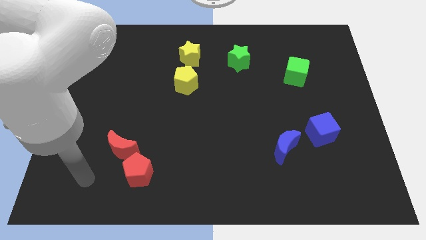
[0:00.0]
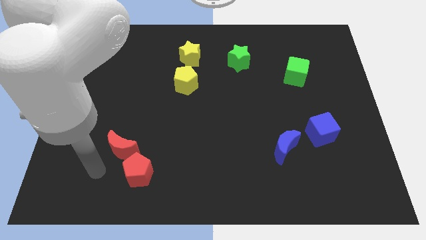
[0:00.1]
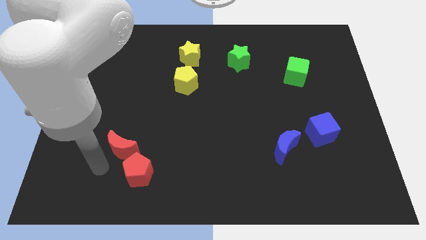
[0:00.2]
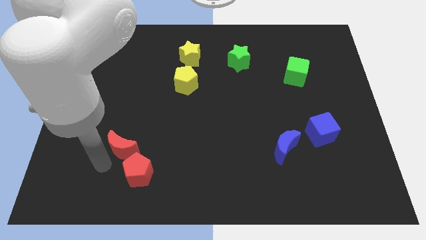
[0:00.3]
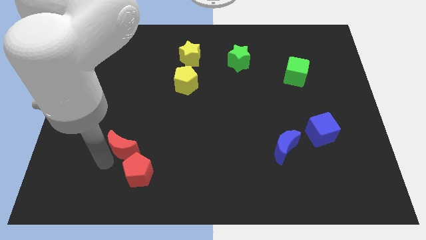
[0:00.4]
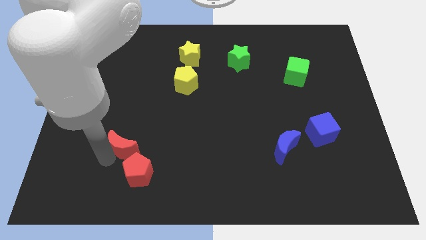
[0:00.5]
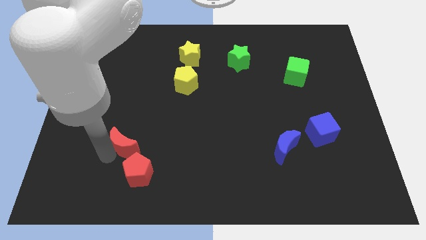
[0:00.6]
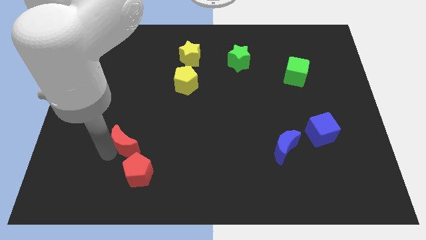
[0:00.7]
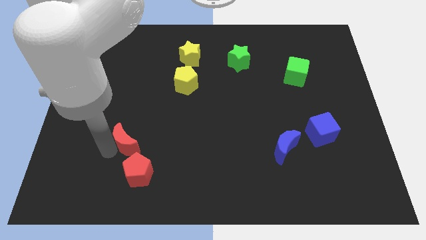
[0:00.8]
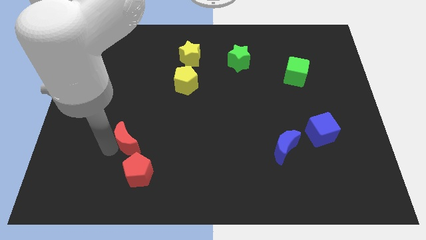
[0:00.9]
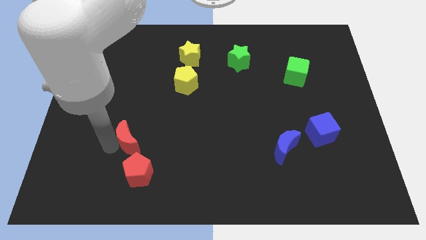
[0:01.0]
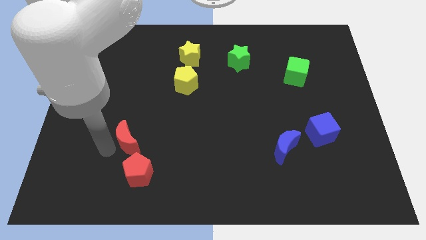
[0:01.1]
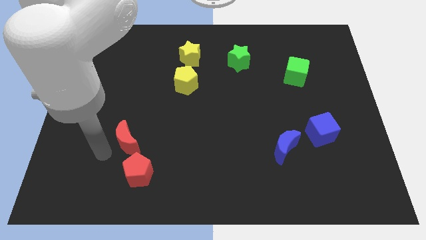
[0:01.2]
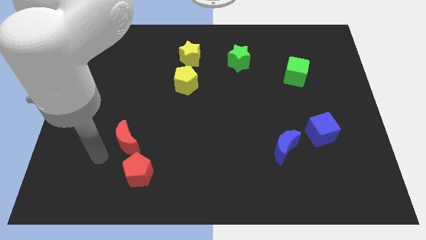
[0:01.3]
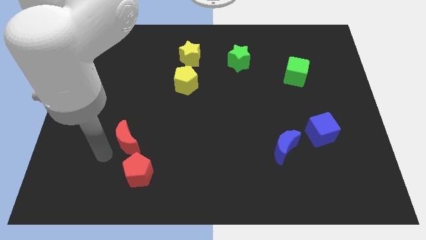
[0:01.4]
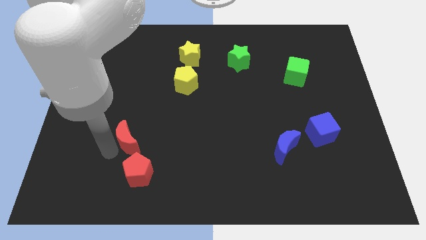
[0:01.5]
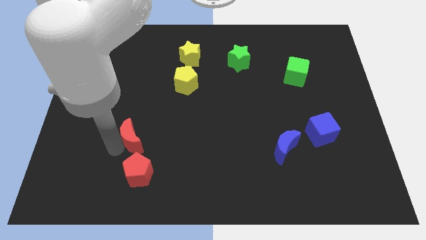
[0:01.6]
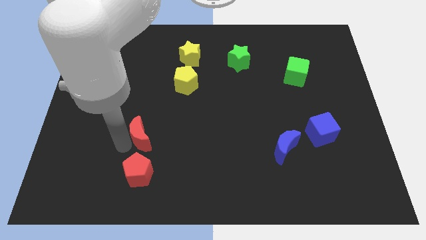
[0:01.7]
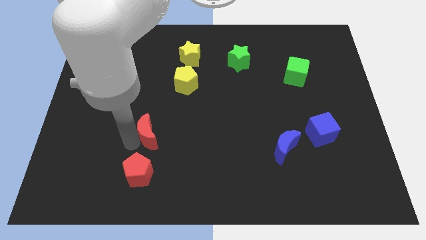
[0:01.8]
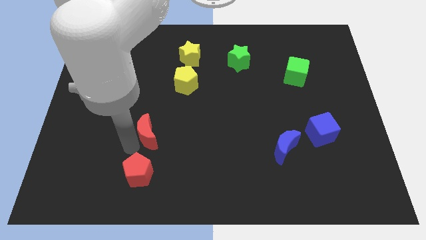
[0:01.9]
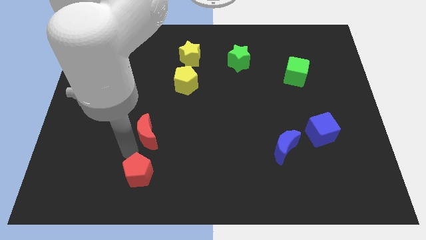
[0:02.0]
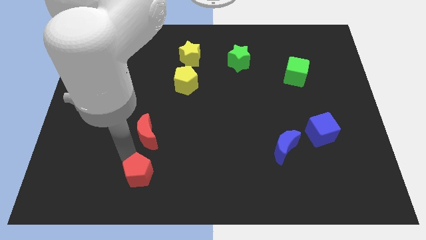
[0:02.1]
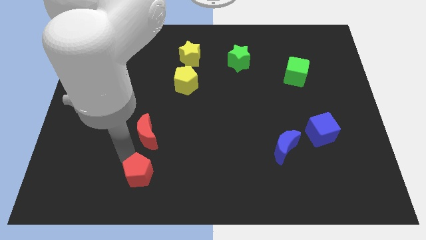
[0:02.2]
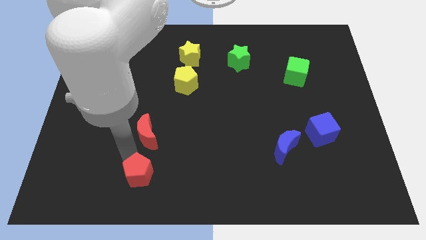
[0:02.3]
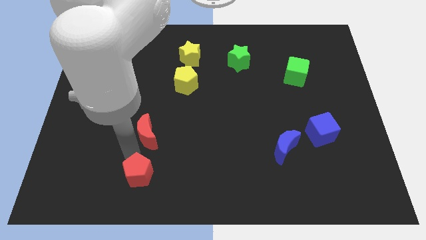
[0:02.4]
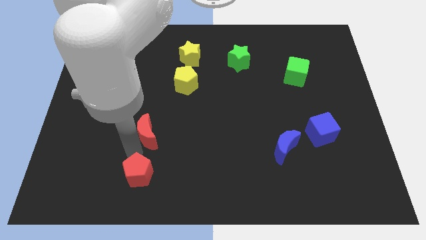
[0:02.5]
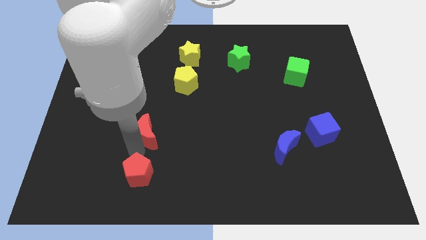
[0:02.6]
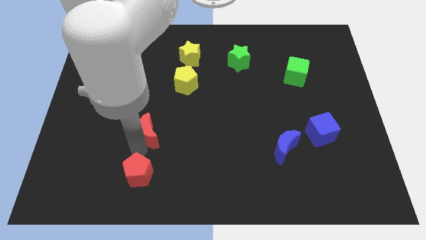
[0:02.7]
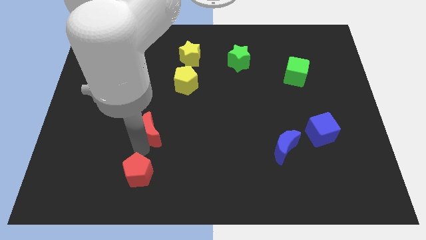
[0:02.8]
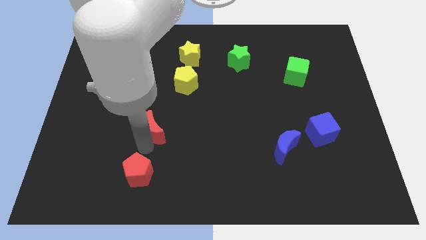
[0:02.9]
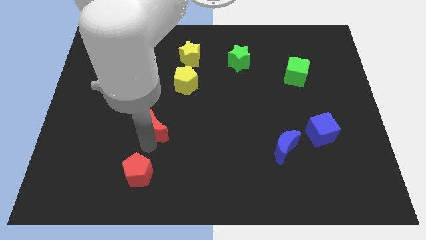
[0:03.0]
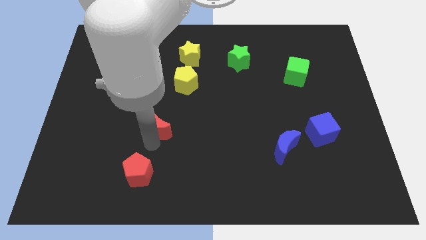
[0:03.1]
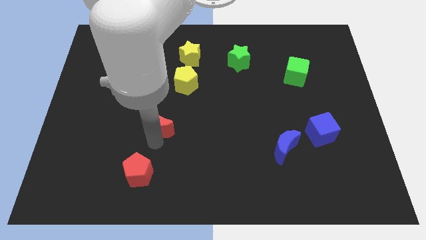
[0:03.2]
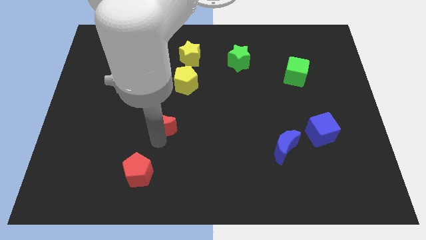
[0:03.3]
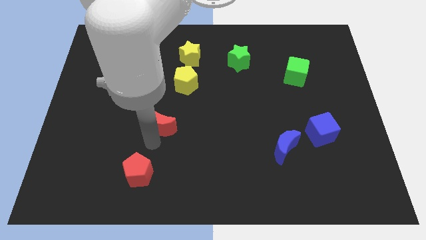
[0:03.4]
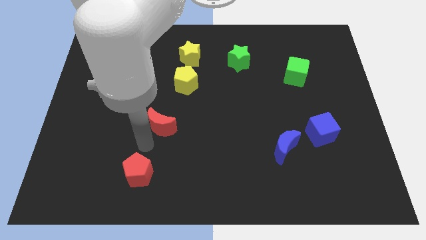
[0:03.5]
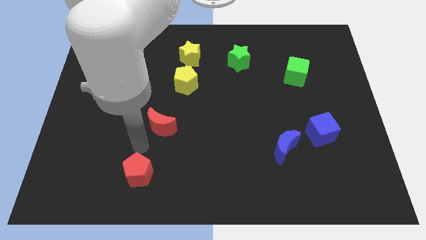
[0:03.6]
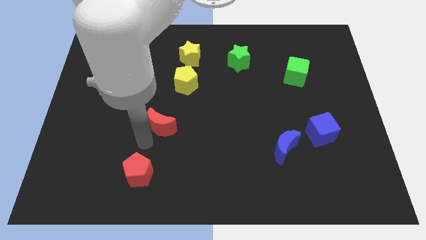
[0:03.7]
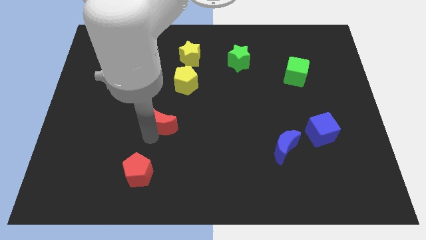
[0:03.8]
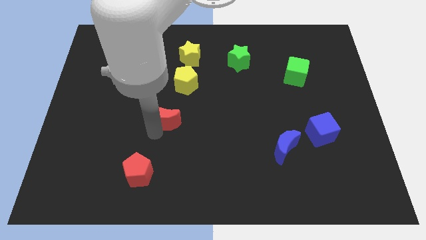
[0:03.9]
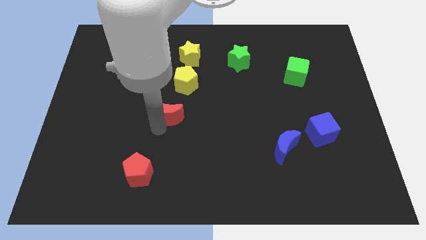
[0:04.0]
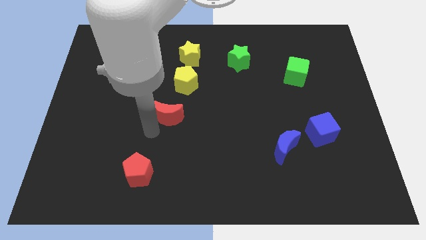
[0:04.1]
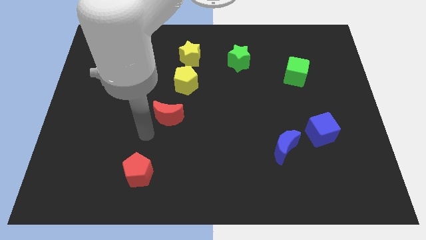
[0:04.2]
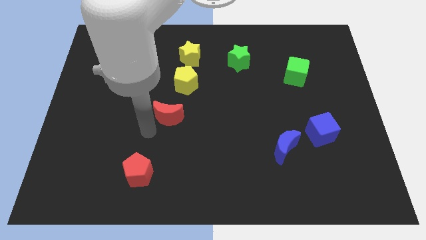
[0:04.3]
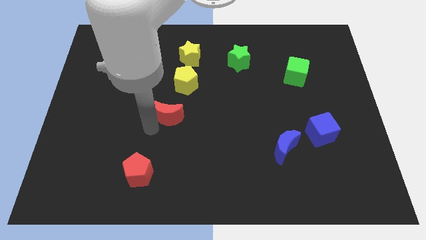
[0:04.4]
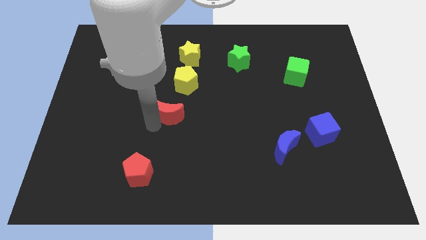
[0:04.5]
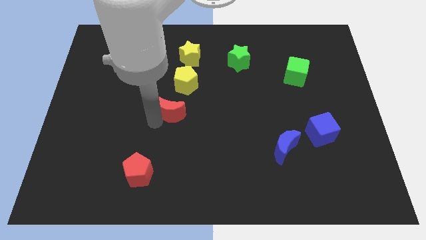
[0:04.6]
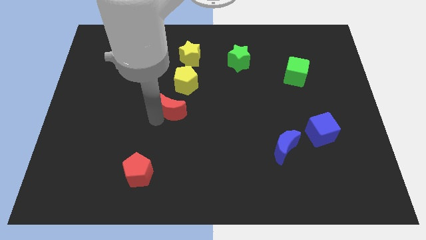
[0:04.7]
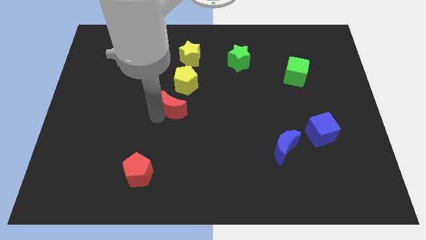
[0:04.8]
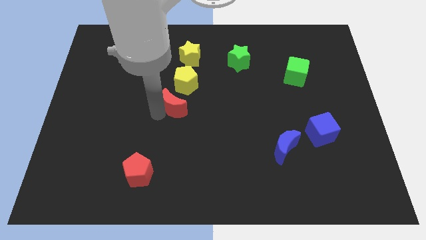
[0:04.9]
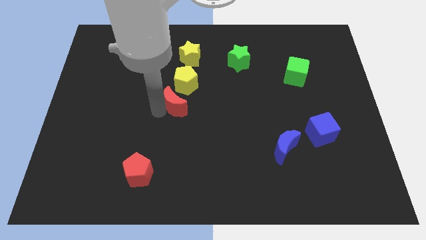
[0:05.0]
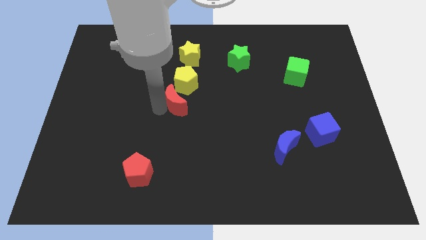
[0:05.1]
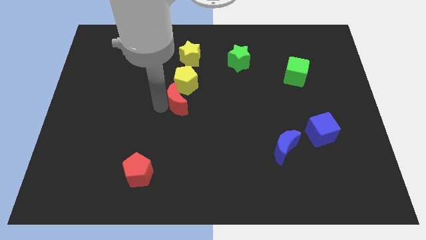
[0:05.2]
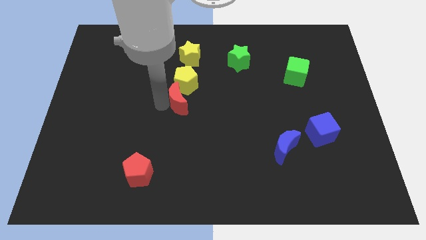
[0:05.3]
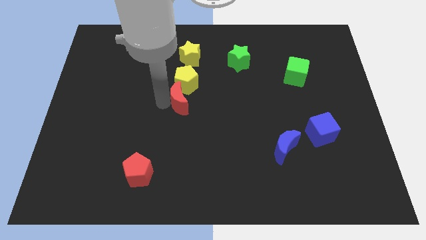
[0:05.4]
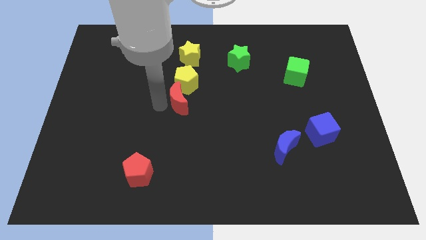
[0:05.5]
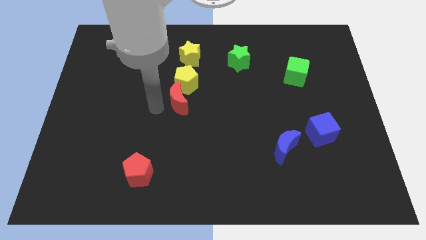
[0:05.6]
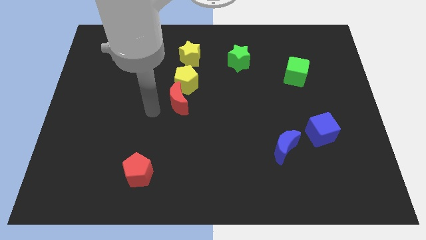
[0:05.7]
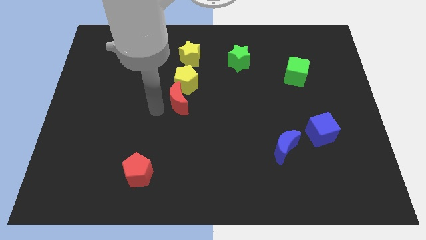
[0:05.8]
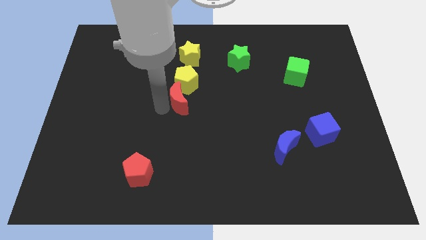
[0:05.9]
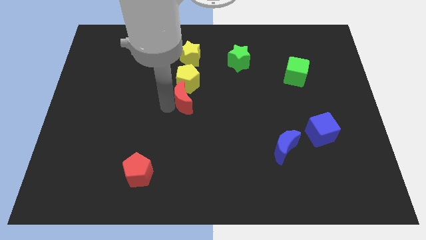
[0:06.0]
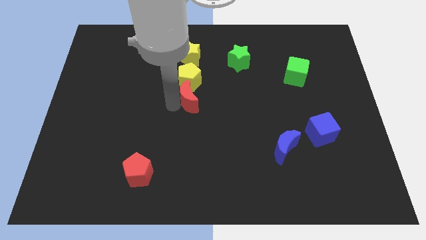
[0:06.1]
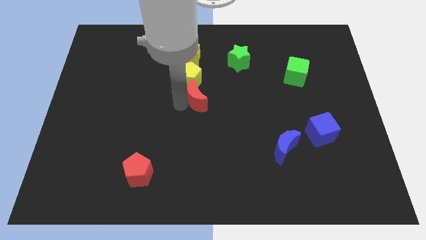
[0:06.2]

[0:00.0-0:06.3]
move the red moon upwards and right

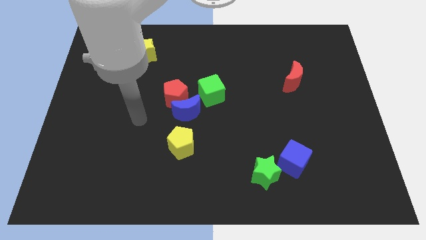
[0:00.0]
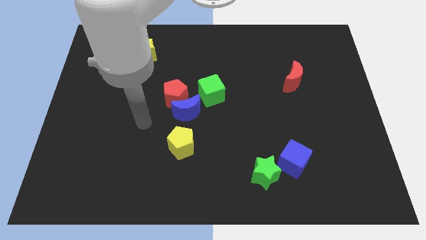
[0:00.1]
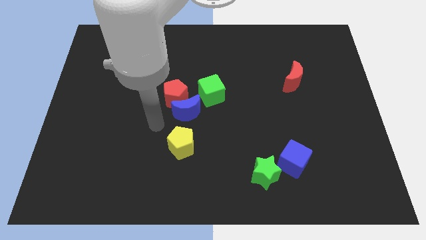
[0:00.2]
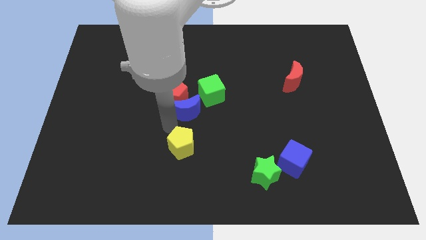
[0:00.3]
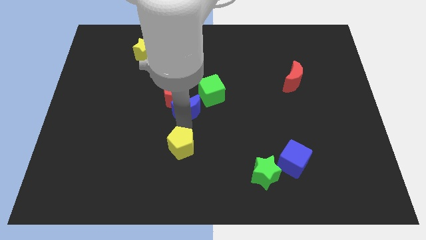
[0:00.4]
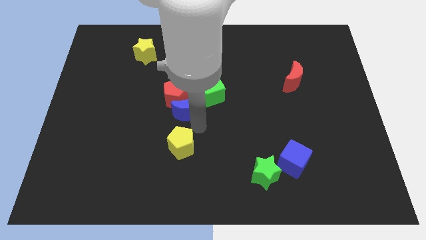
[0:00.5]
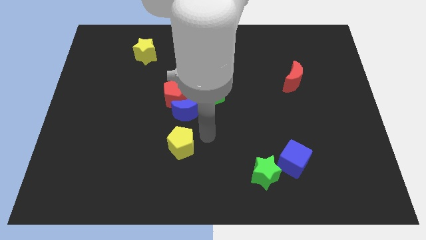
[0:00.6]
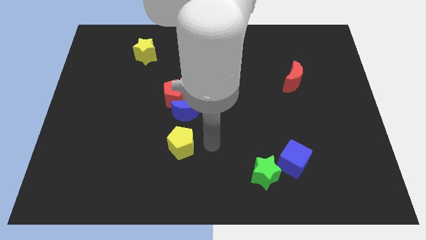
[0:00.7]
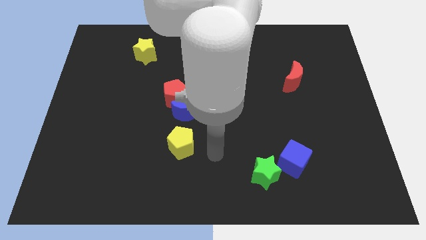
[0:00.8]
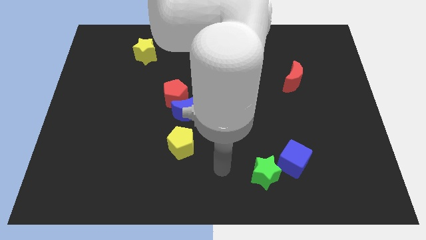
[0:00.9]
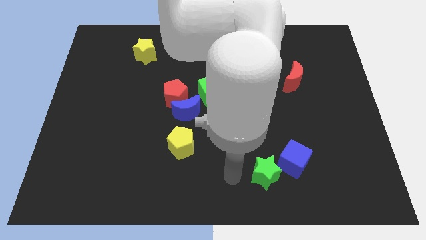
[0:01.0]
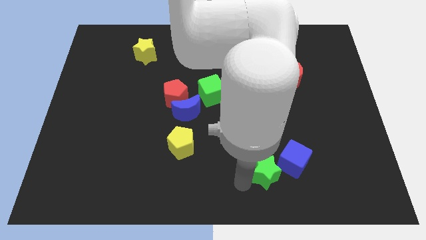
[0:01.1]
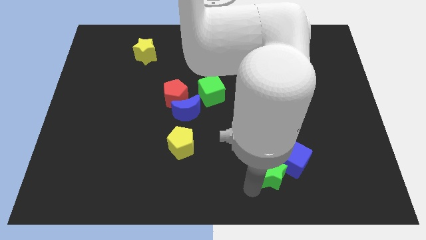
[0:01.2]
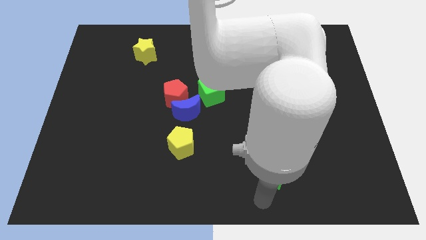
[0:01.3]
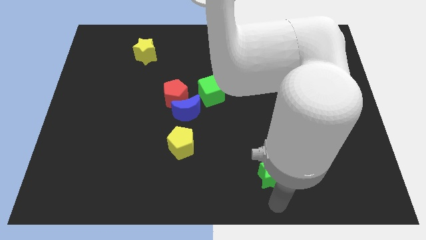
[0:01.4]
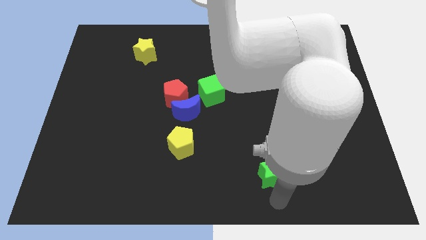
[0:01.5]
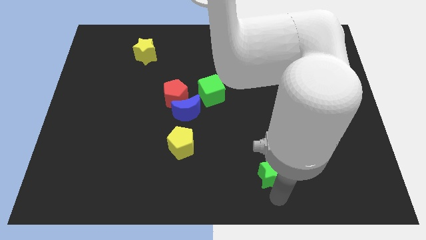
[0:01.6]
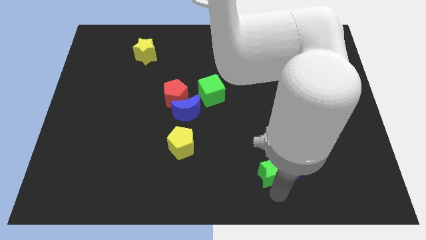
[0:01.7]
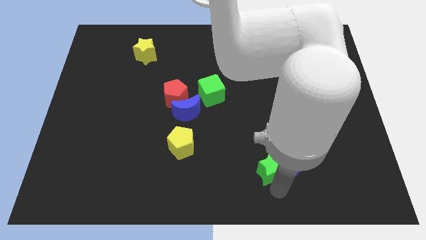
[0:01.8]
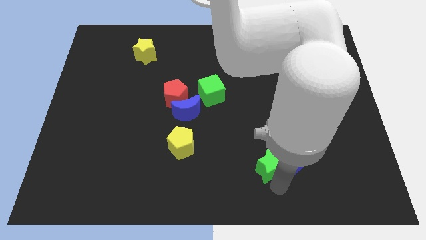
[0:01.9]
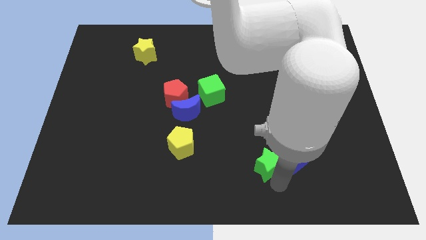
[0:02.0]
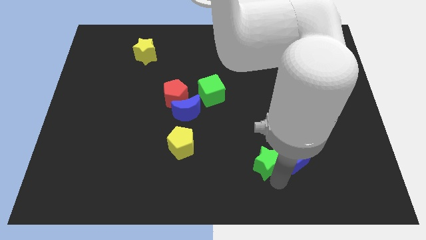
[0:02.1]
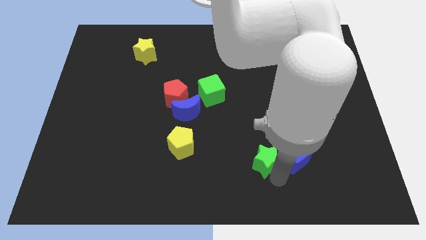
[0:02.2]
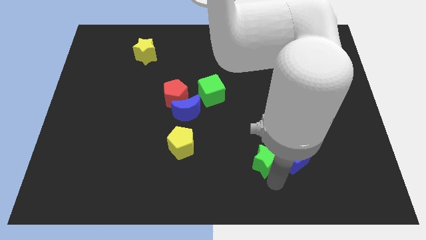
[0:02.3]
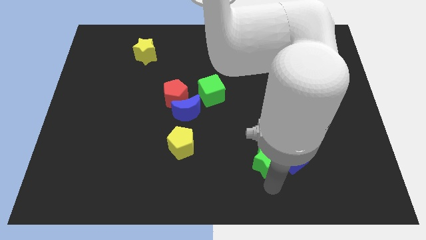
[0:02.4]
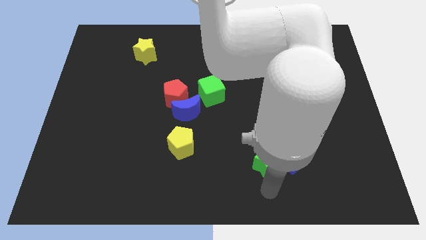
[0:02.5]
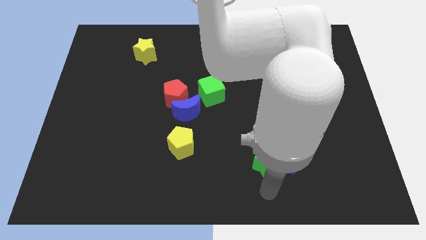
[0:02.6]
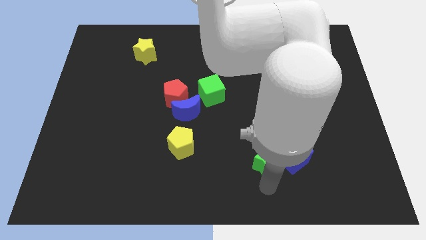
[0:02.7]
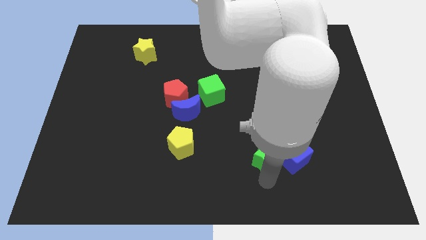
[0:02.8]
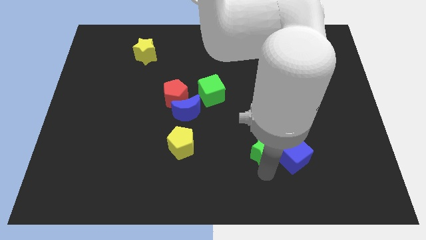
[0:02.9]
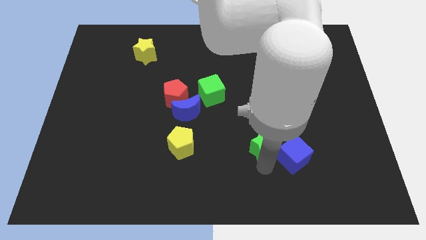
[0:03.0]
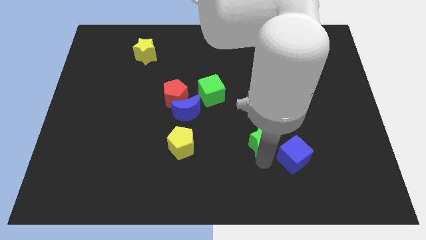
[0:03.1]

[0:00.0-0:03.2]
slightly push the green star upwards
